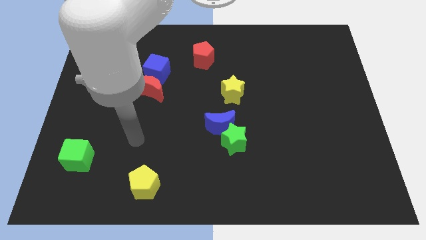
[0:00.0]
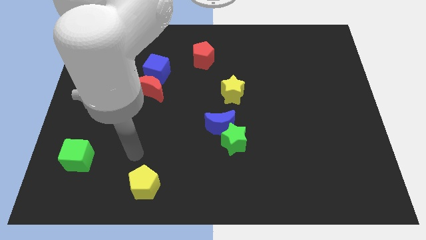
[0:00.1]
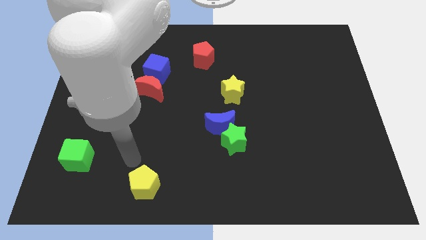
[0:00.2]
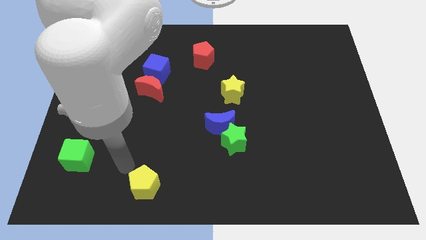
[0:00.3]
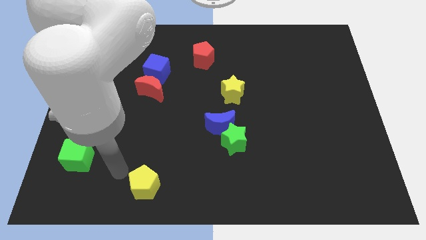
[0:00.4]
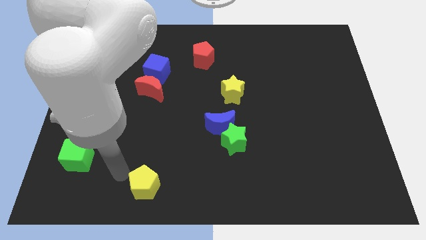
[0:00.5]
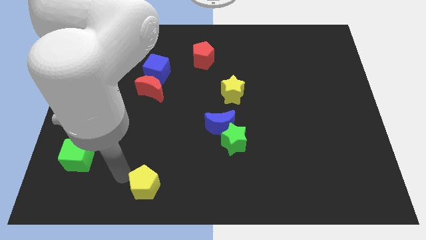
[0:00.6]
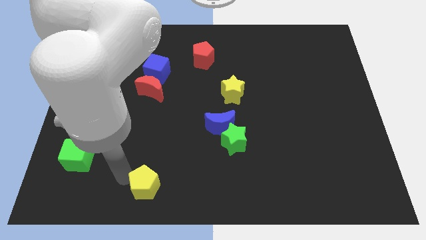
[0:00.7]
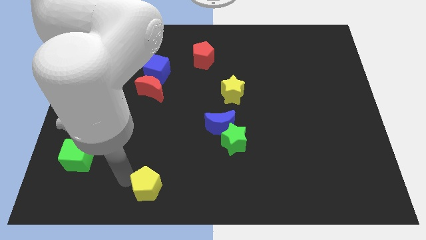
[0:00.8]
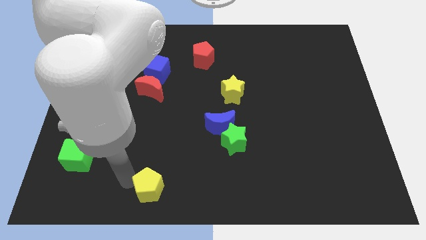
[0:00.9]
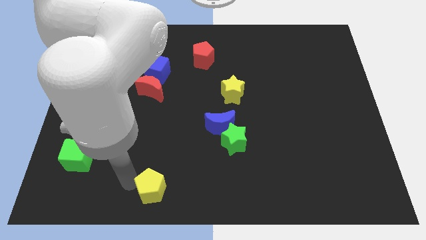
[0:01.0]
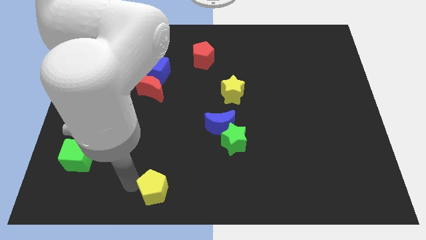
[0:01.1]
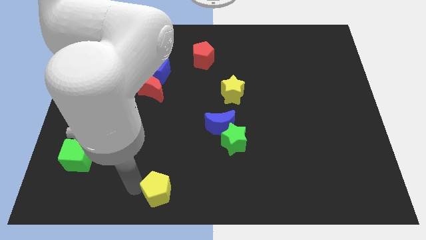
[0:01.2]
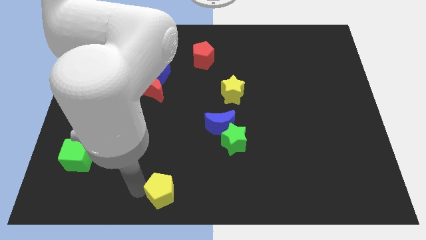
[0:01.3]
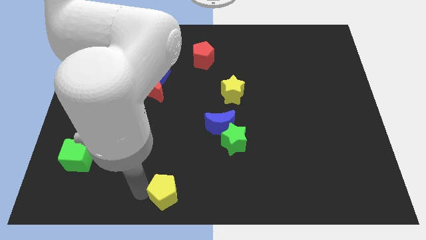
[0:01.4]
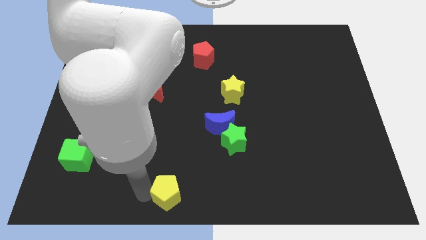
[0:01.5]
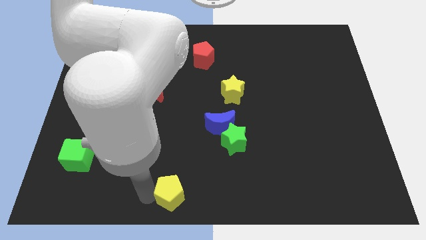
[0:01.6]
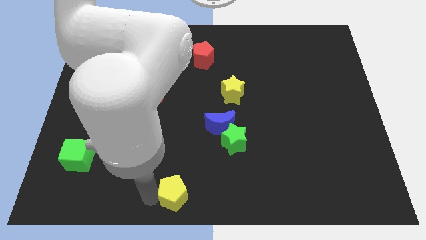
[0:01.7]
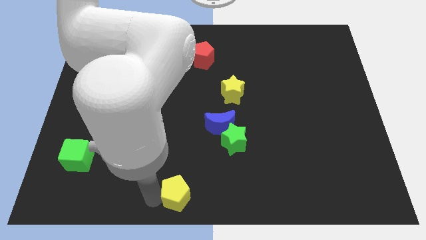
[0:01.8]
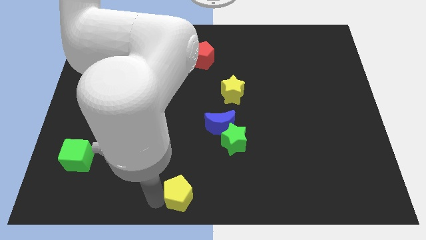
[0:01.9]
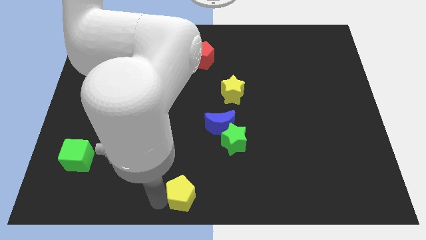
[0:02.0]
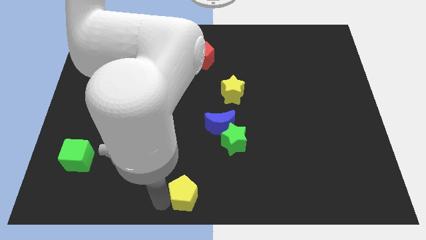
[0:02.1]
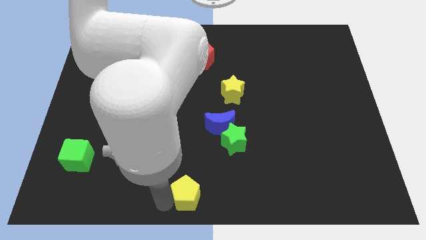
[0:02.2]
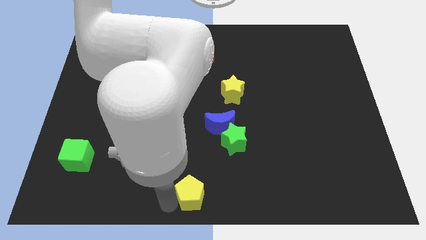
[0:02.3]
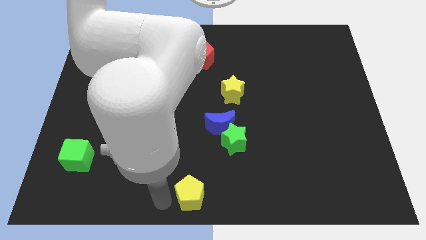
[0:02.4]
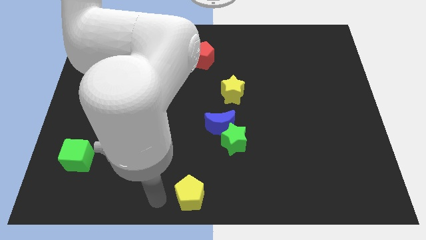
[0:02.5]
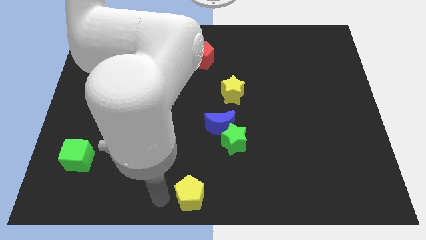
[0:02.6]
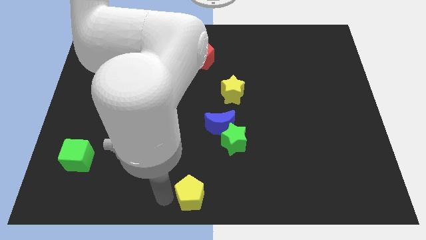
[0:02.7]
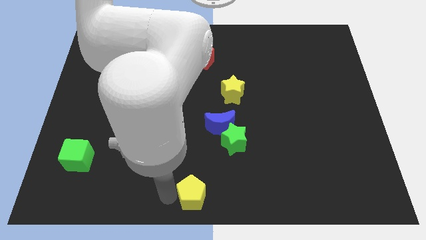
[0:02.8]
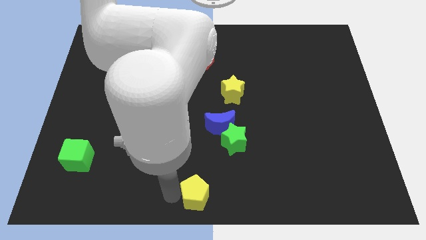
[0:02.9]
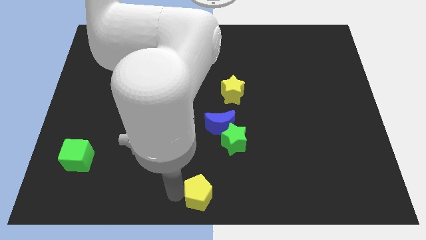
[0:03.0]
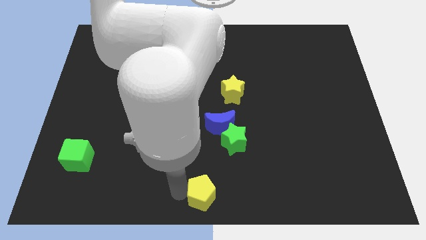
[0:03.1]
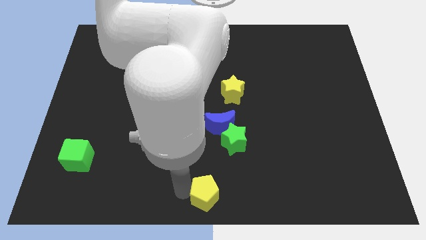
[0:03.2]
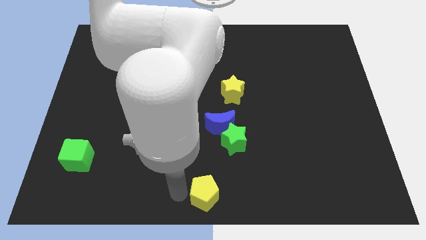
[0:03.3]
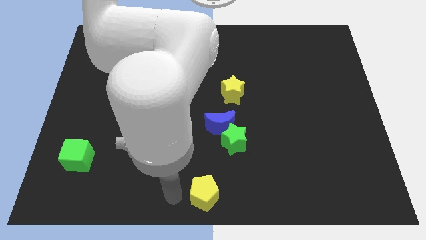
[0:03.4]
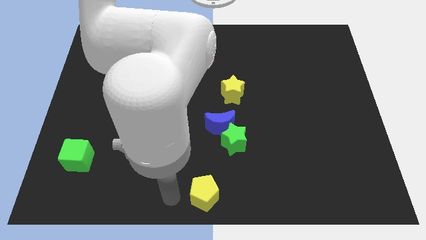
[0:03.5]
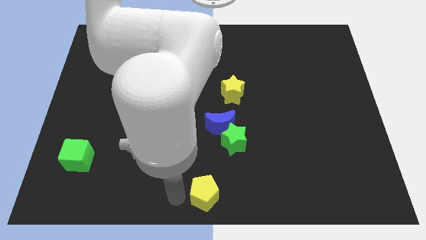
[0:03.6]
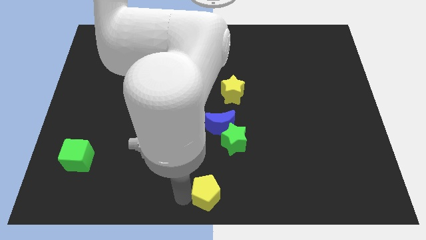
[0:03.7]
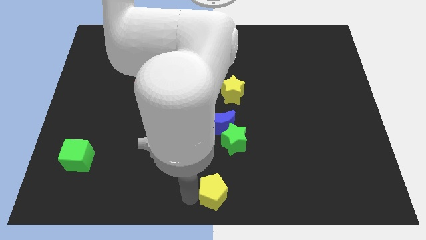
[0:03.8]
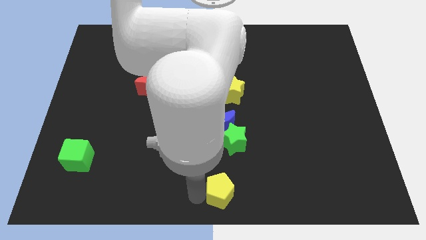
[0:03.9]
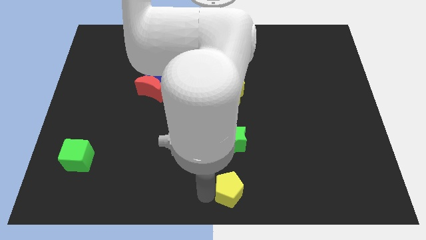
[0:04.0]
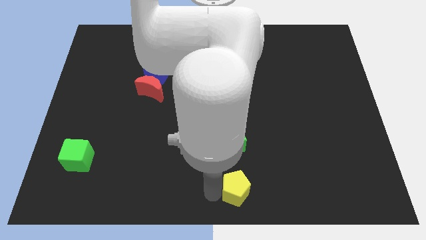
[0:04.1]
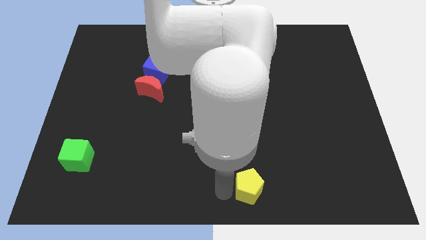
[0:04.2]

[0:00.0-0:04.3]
push the yellow pentagon right

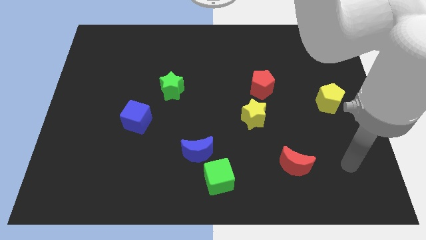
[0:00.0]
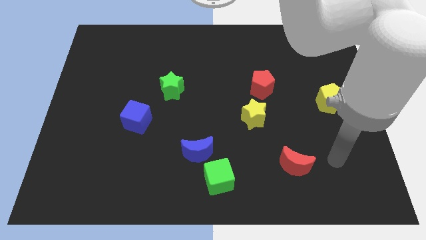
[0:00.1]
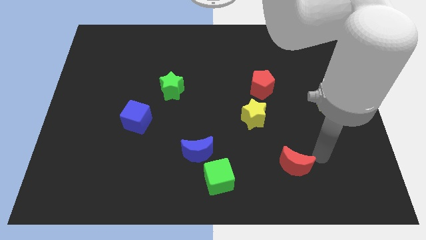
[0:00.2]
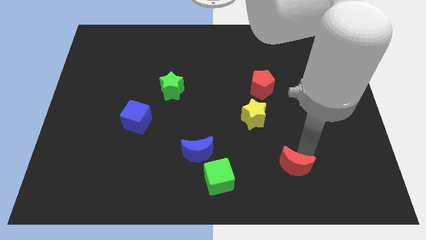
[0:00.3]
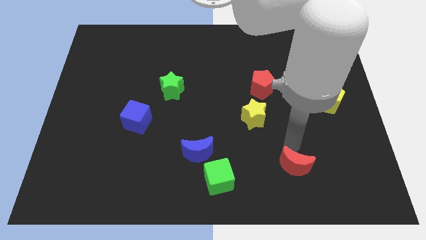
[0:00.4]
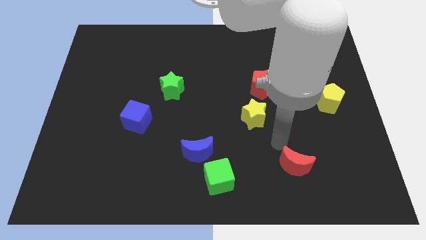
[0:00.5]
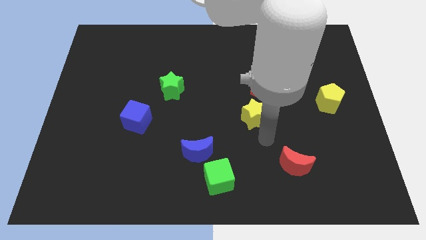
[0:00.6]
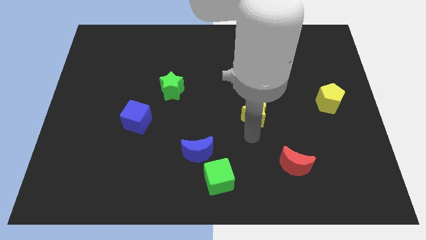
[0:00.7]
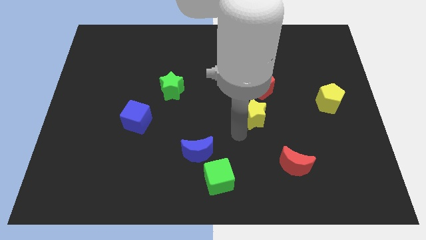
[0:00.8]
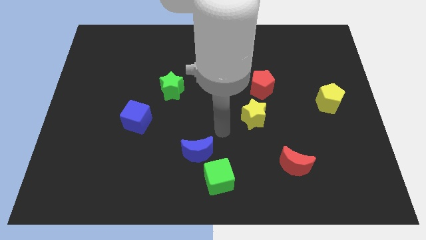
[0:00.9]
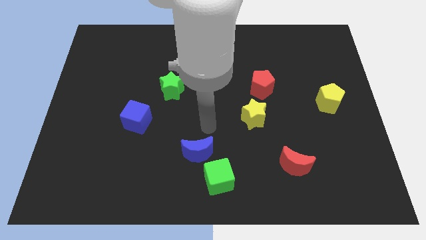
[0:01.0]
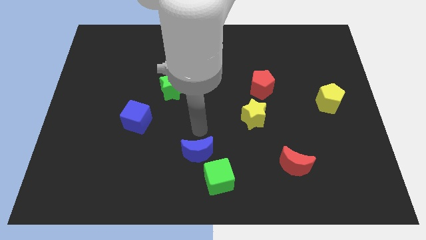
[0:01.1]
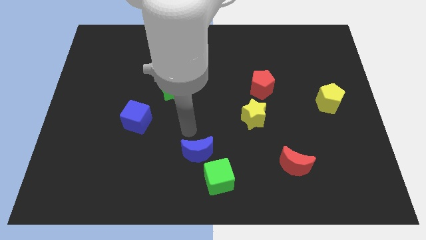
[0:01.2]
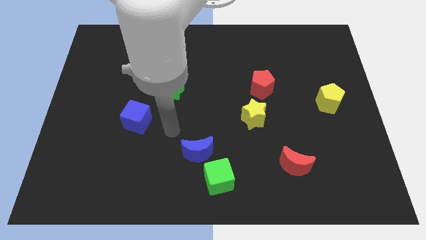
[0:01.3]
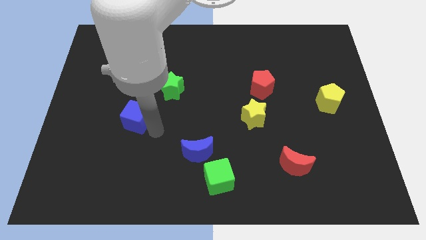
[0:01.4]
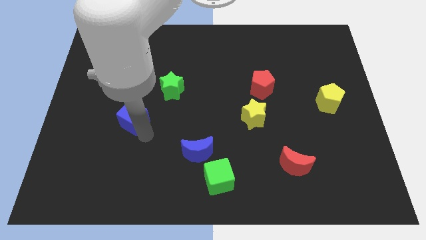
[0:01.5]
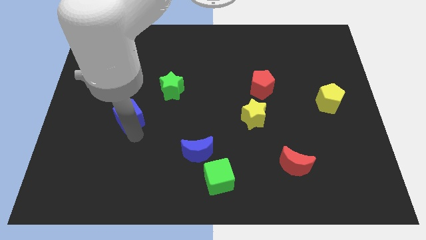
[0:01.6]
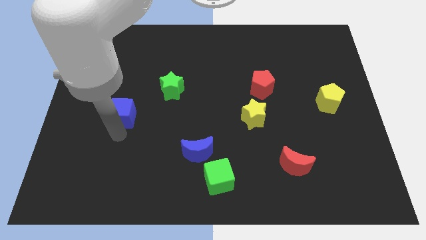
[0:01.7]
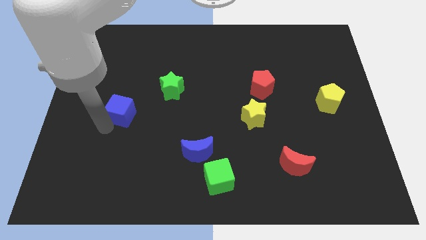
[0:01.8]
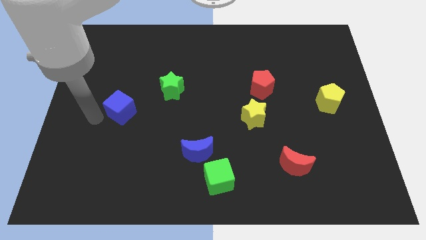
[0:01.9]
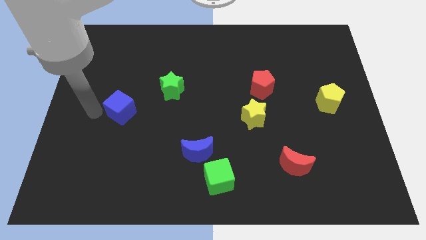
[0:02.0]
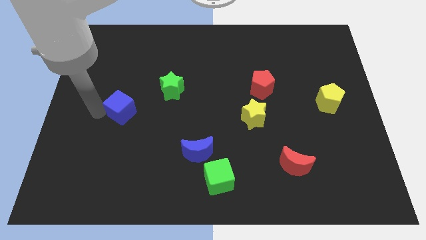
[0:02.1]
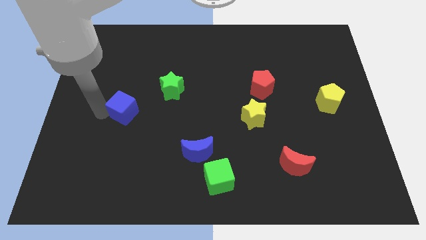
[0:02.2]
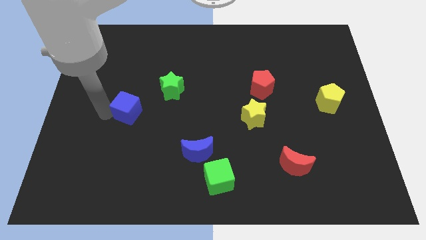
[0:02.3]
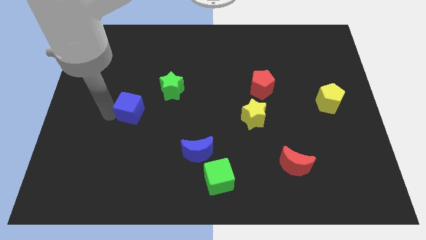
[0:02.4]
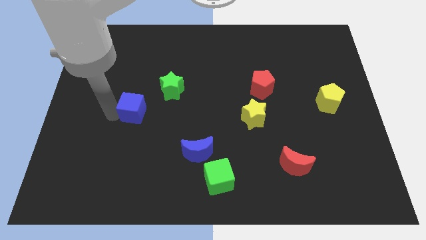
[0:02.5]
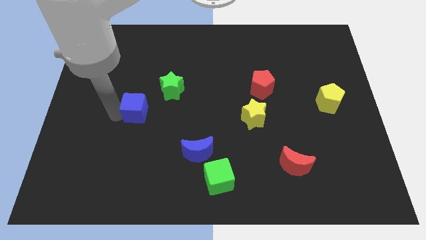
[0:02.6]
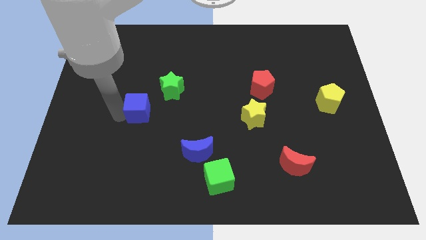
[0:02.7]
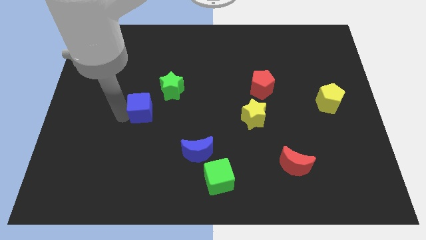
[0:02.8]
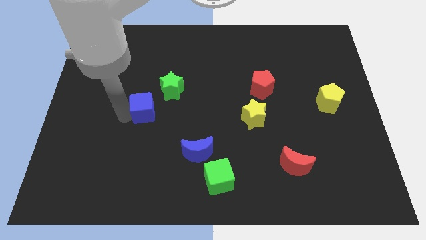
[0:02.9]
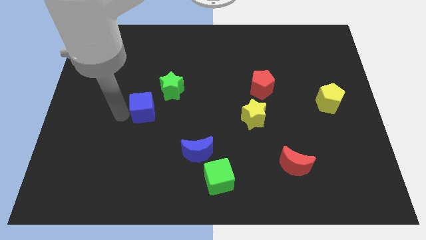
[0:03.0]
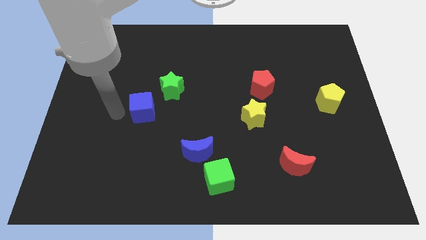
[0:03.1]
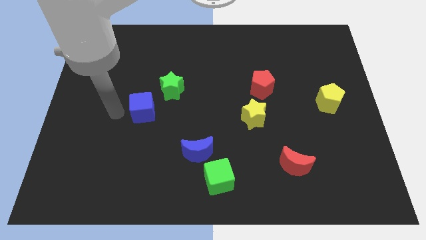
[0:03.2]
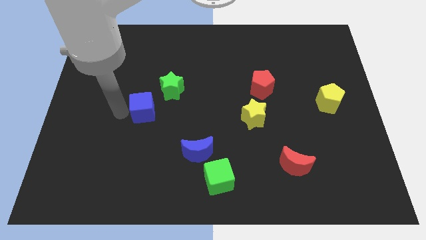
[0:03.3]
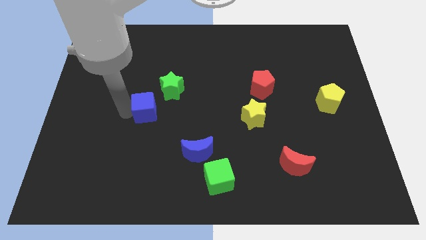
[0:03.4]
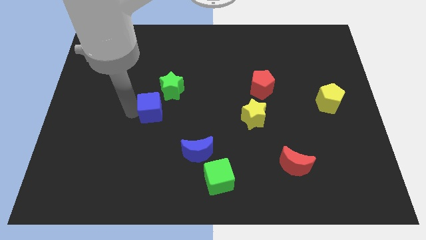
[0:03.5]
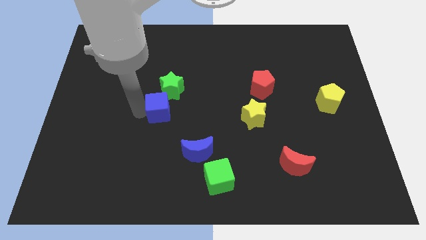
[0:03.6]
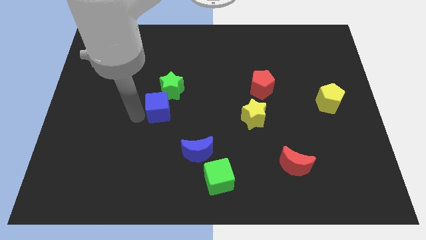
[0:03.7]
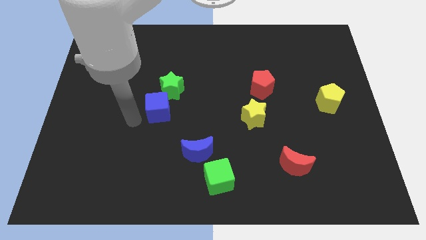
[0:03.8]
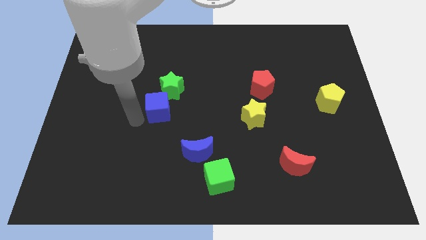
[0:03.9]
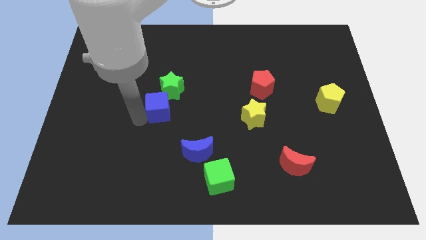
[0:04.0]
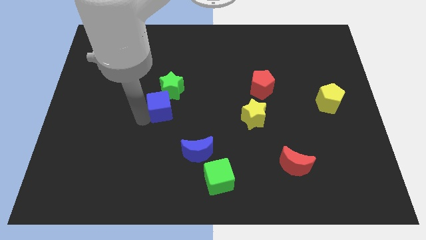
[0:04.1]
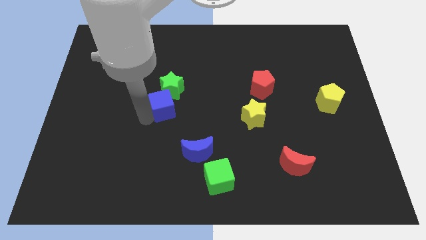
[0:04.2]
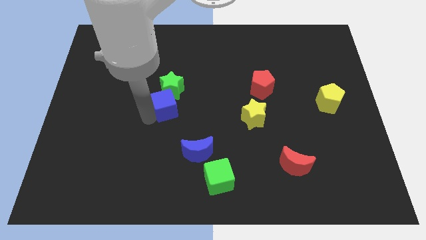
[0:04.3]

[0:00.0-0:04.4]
push the blue cube a little upwards and then to the right
